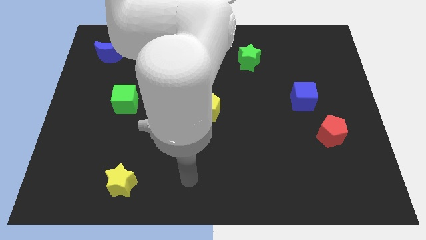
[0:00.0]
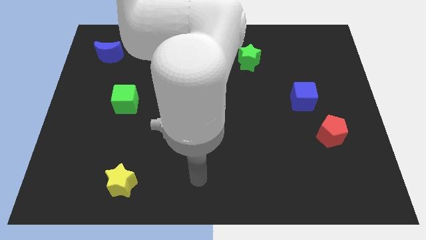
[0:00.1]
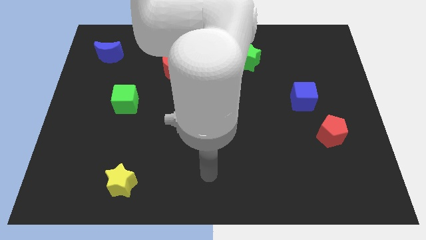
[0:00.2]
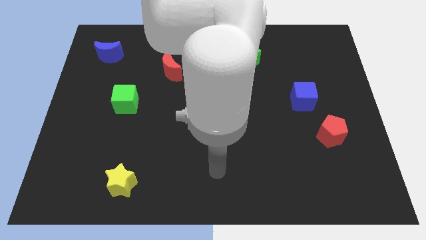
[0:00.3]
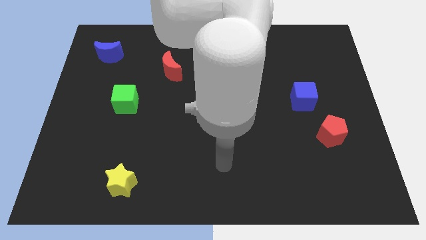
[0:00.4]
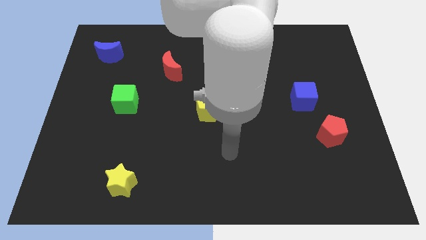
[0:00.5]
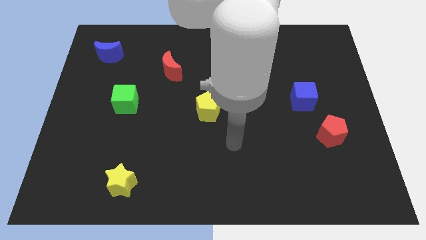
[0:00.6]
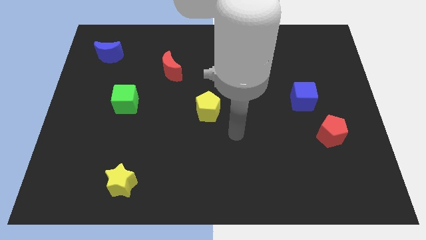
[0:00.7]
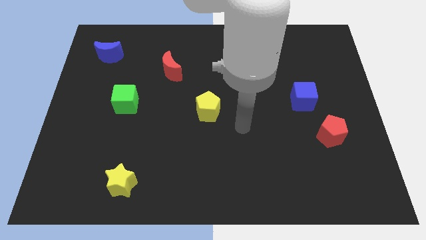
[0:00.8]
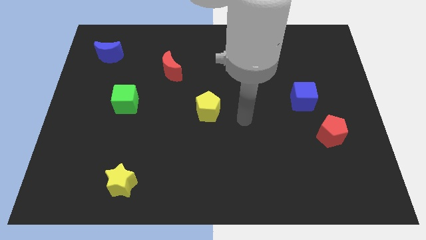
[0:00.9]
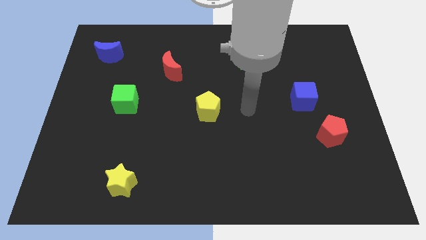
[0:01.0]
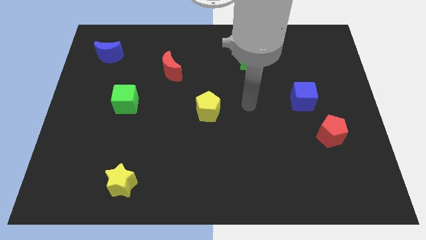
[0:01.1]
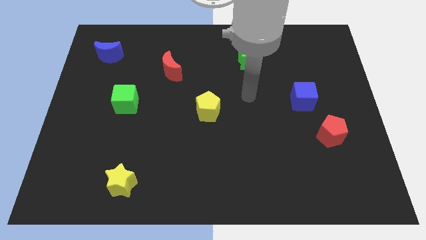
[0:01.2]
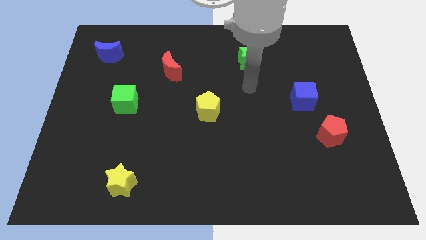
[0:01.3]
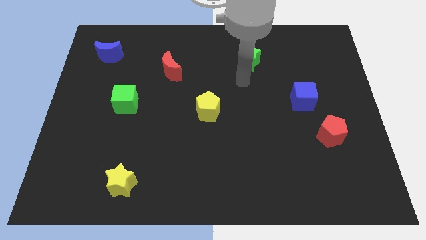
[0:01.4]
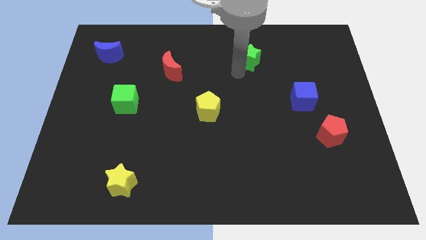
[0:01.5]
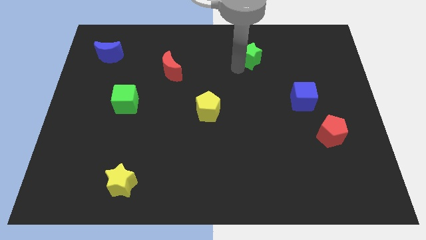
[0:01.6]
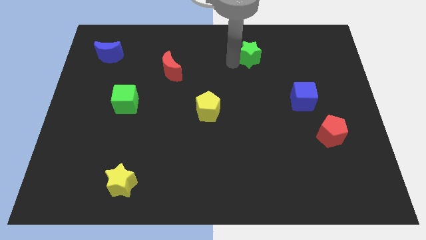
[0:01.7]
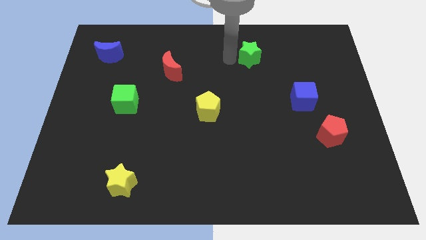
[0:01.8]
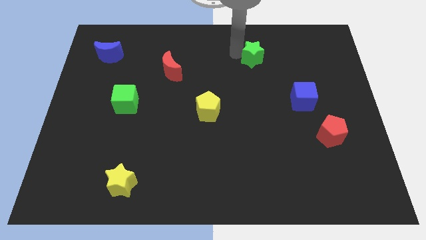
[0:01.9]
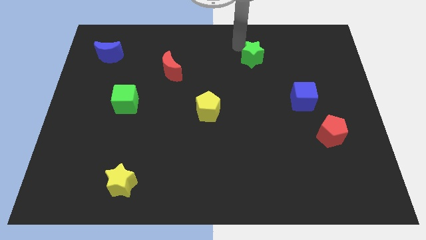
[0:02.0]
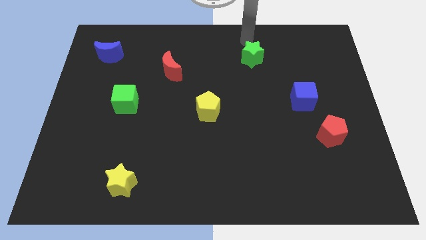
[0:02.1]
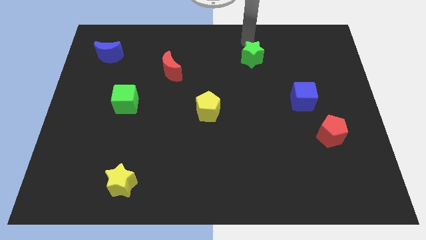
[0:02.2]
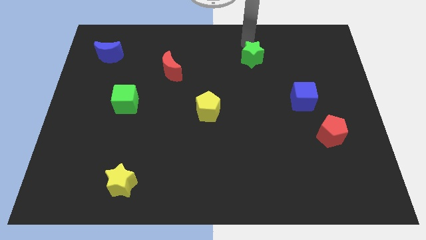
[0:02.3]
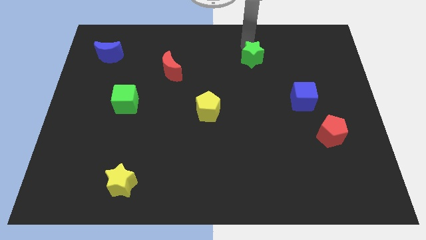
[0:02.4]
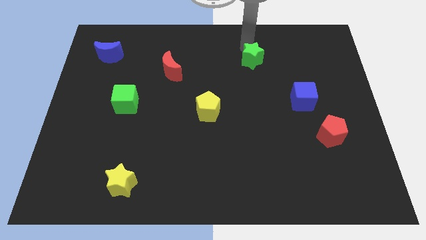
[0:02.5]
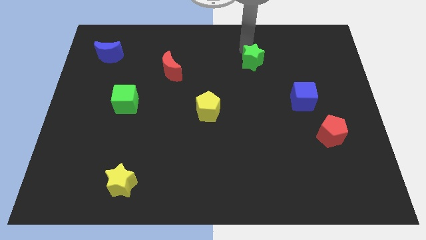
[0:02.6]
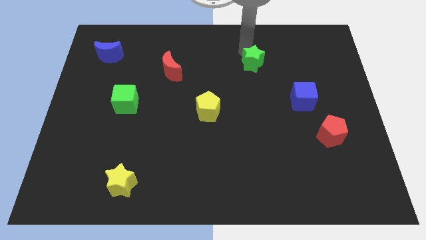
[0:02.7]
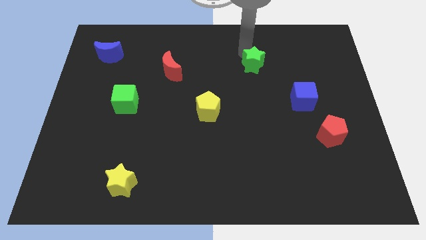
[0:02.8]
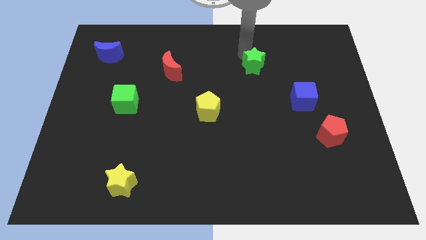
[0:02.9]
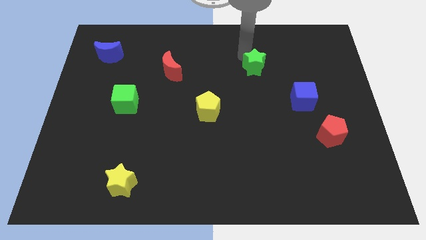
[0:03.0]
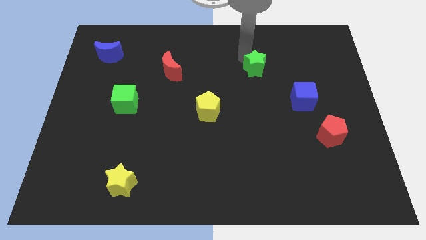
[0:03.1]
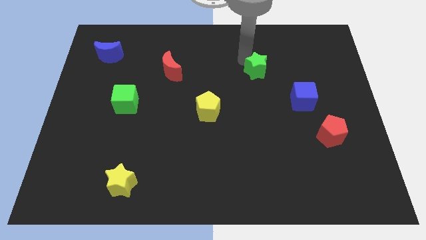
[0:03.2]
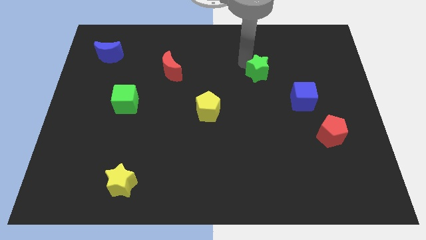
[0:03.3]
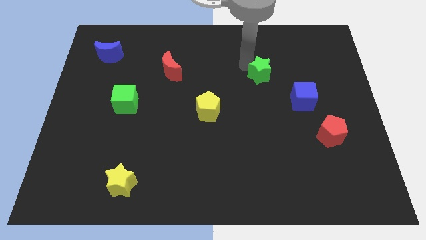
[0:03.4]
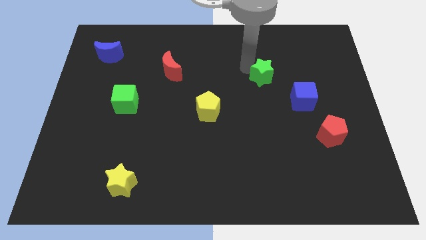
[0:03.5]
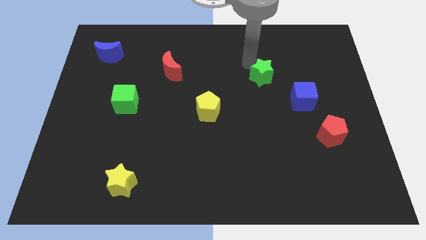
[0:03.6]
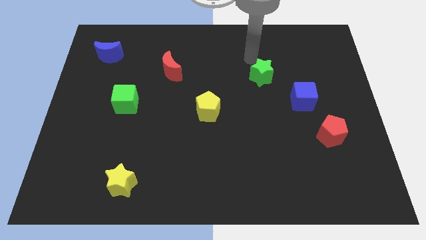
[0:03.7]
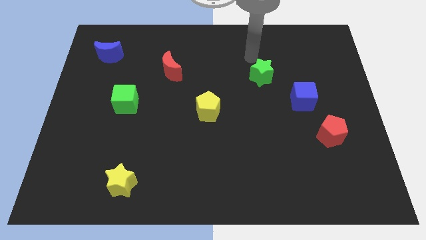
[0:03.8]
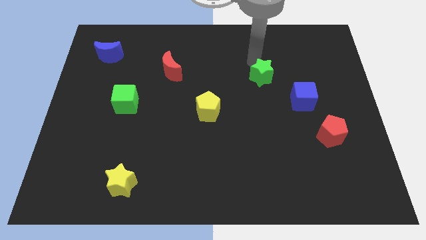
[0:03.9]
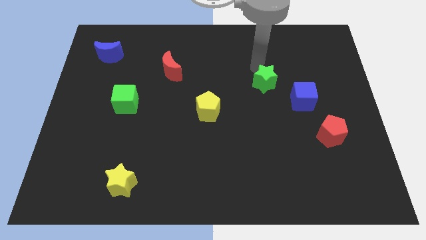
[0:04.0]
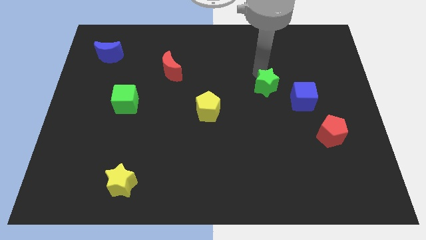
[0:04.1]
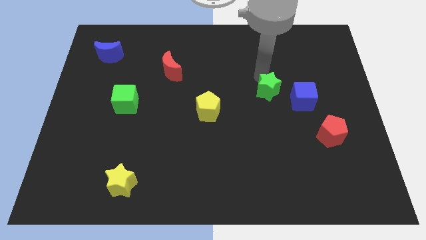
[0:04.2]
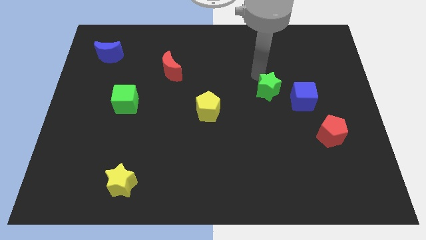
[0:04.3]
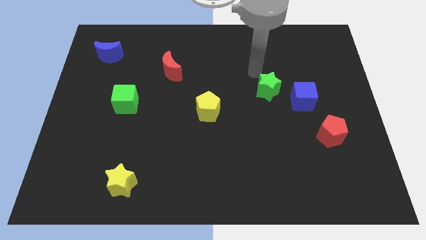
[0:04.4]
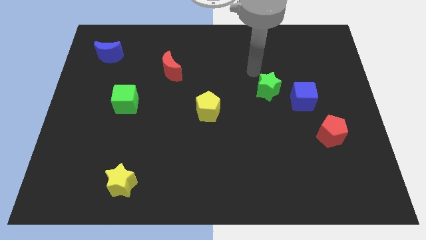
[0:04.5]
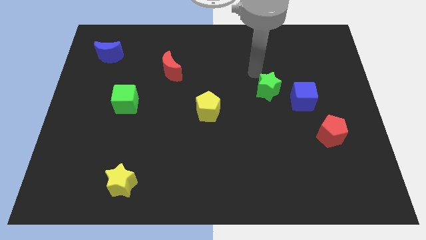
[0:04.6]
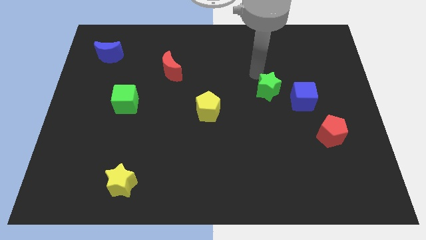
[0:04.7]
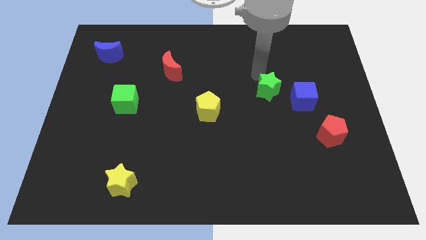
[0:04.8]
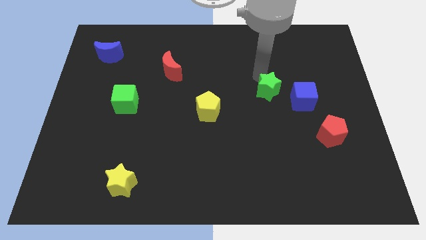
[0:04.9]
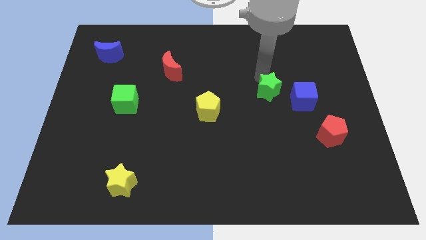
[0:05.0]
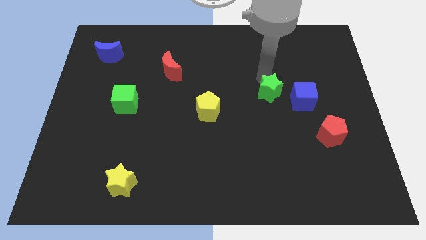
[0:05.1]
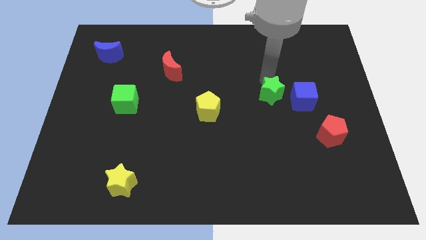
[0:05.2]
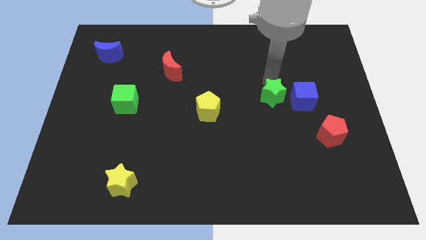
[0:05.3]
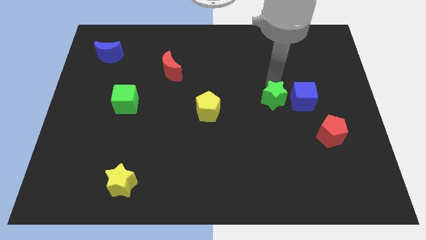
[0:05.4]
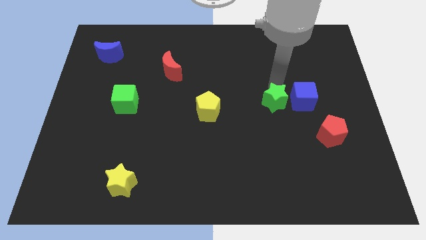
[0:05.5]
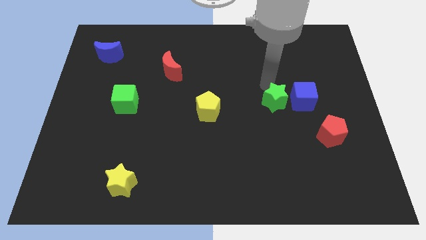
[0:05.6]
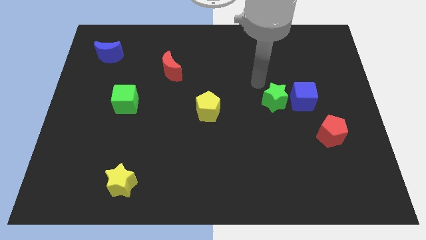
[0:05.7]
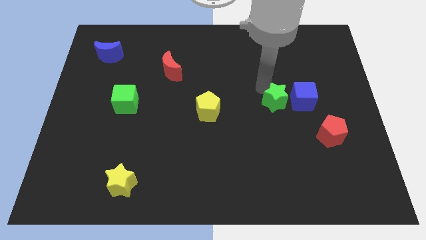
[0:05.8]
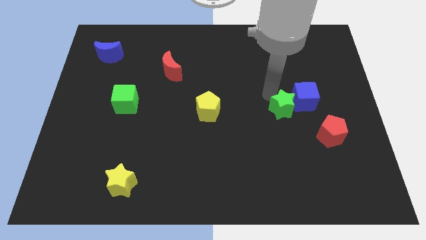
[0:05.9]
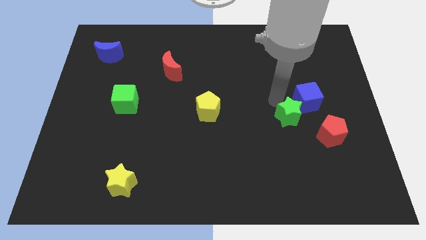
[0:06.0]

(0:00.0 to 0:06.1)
push the green star below the blue cube

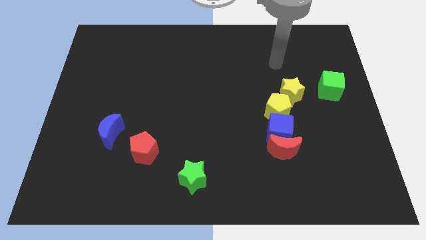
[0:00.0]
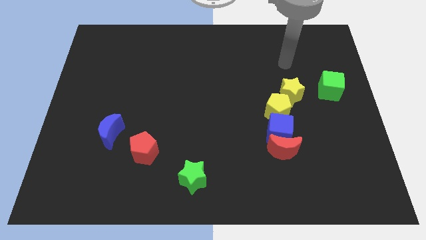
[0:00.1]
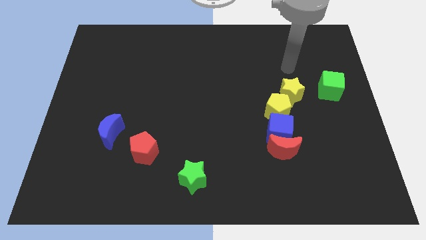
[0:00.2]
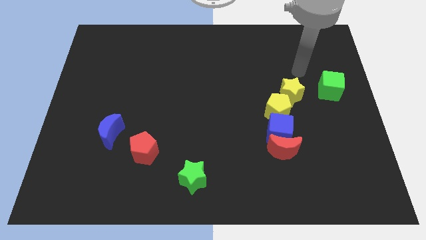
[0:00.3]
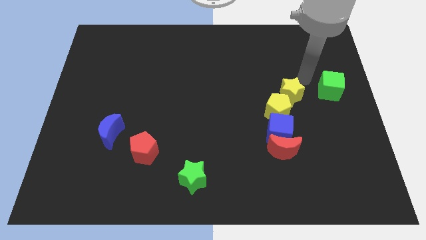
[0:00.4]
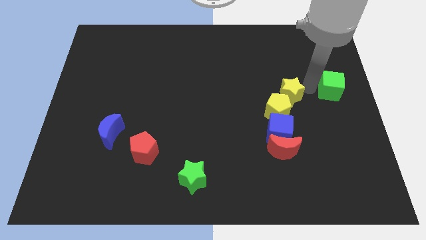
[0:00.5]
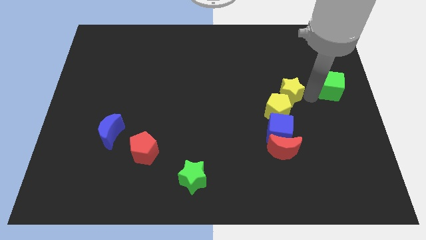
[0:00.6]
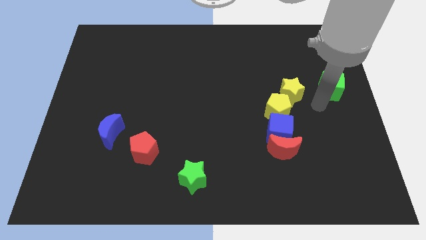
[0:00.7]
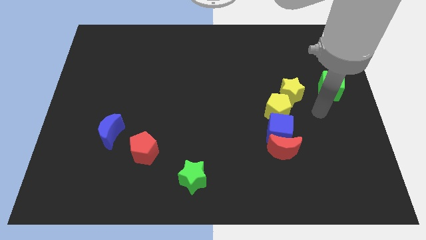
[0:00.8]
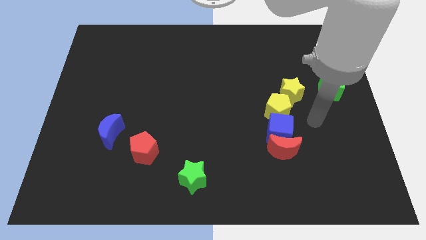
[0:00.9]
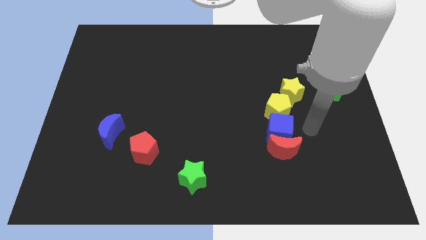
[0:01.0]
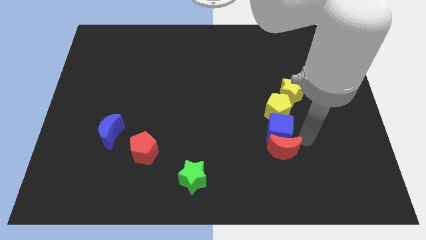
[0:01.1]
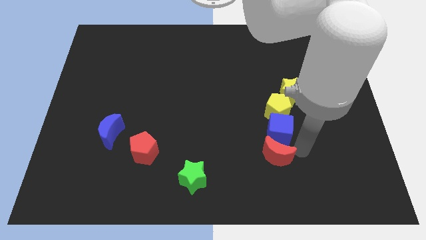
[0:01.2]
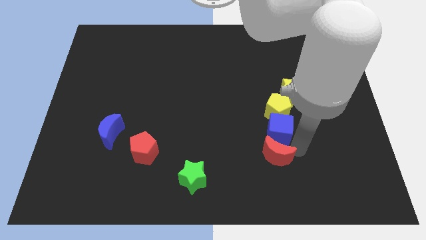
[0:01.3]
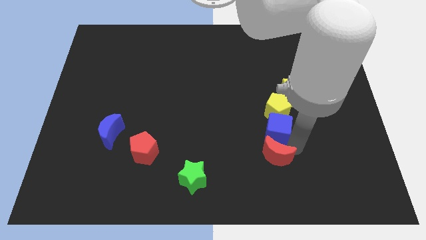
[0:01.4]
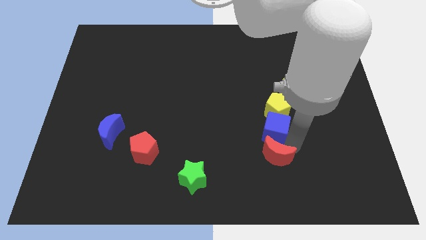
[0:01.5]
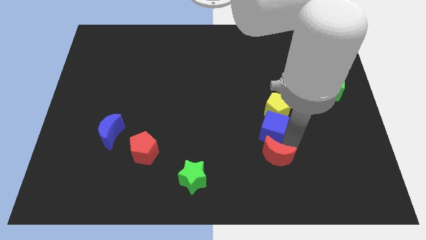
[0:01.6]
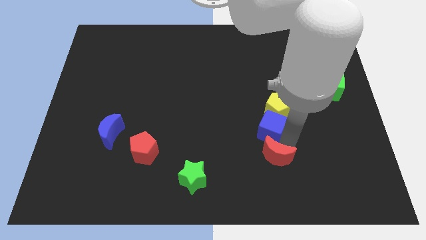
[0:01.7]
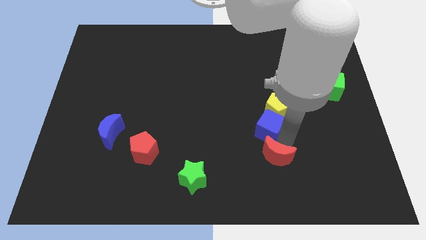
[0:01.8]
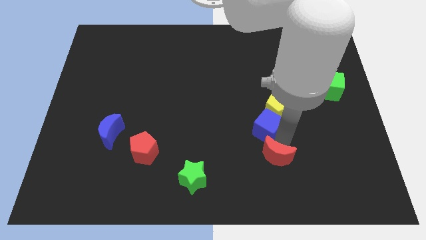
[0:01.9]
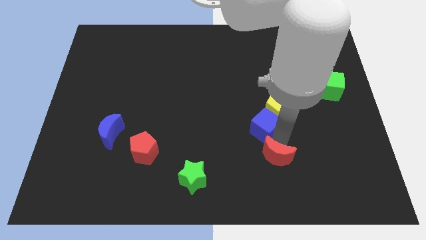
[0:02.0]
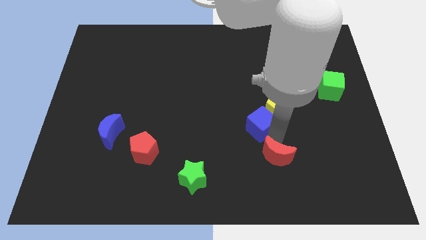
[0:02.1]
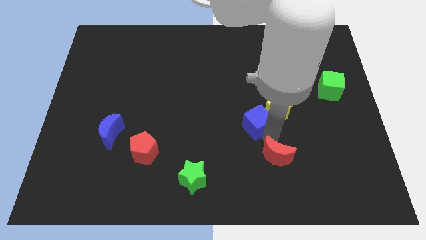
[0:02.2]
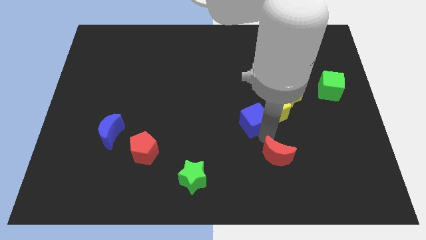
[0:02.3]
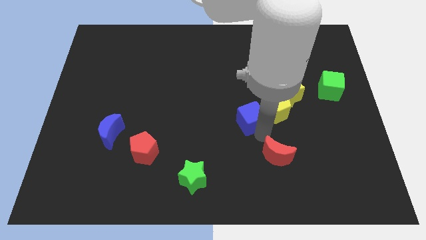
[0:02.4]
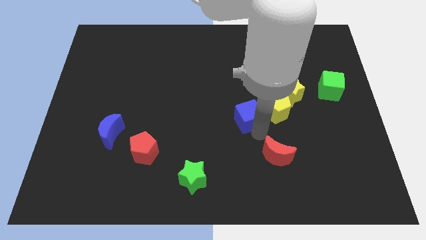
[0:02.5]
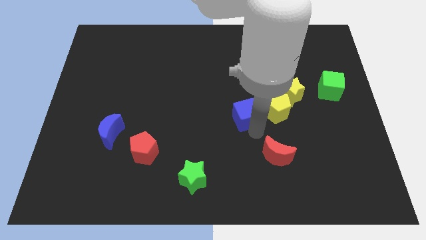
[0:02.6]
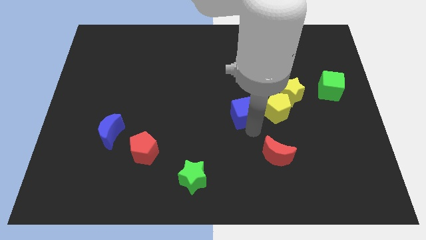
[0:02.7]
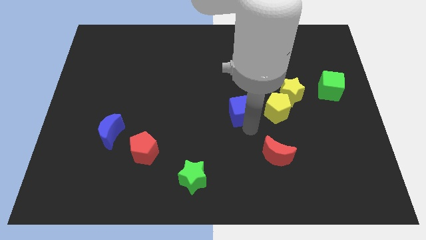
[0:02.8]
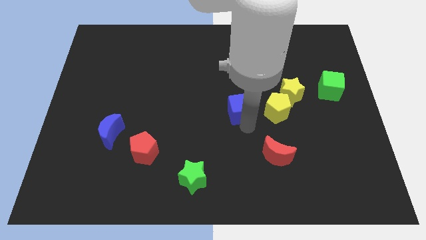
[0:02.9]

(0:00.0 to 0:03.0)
put the blue cube to the left of the yellow star
